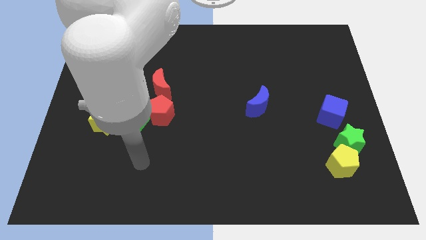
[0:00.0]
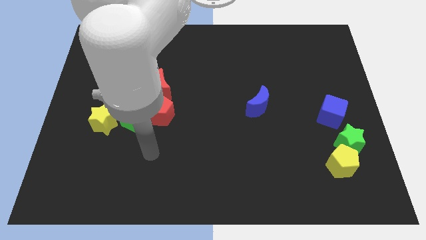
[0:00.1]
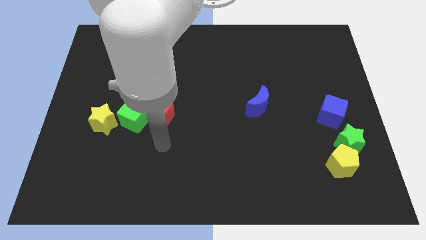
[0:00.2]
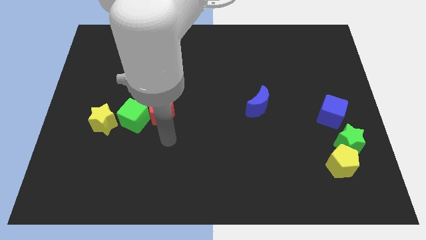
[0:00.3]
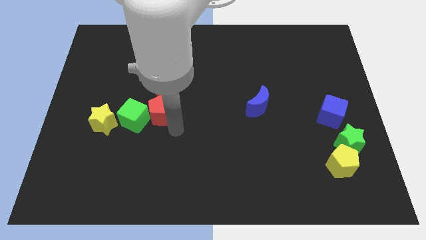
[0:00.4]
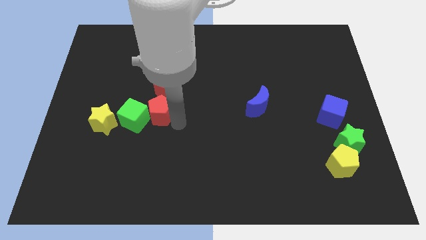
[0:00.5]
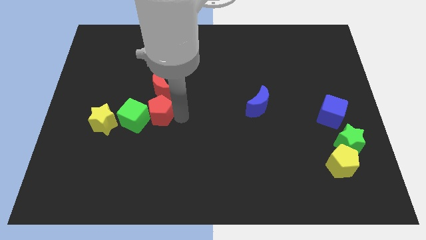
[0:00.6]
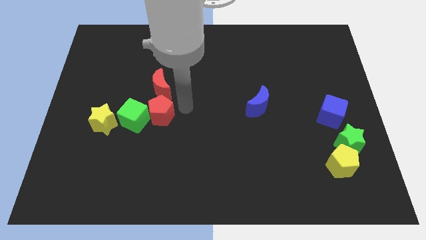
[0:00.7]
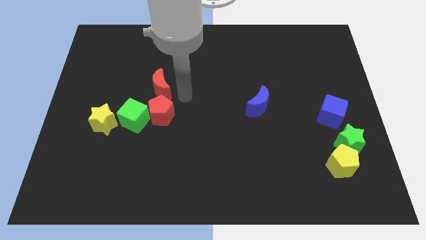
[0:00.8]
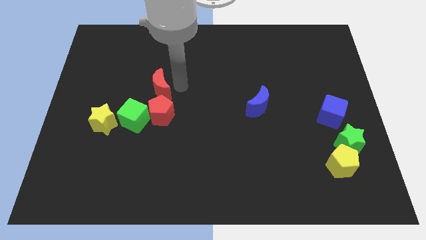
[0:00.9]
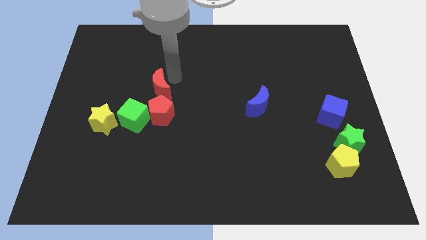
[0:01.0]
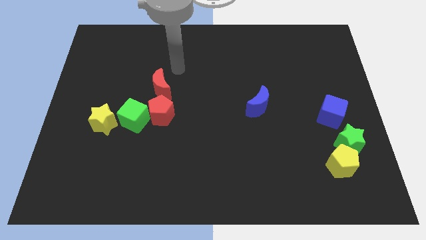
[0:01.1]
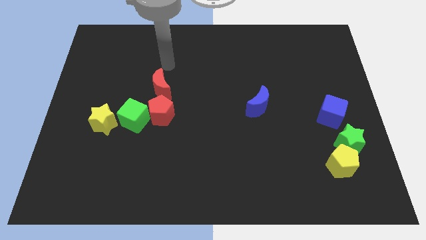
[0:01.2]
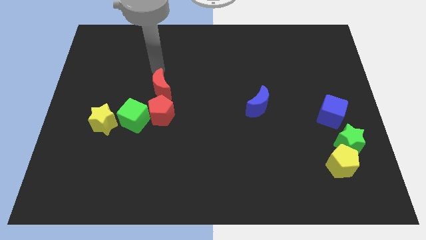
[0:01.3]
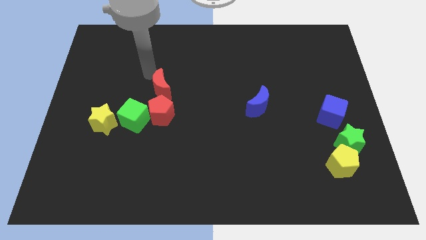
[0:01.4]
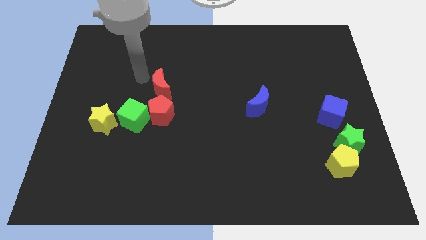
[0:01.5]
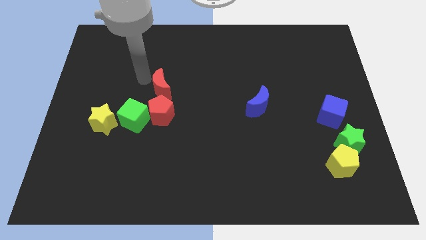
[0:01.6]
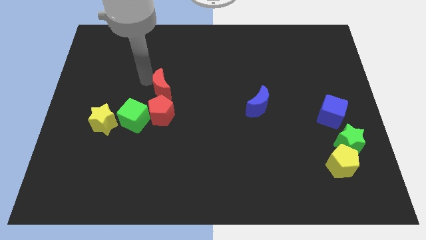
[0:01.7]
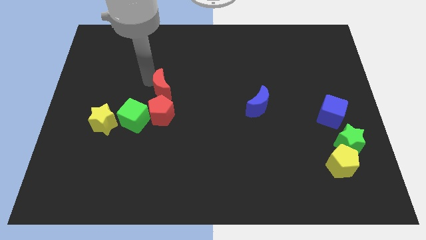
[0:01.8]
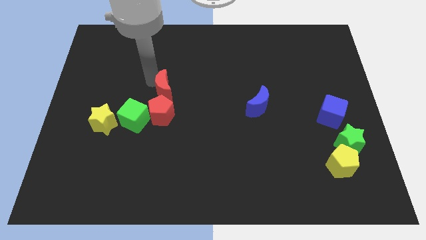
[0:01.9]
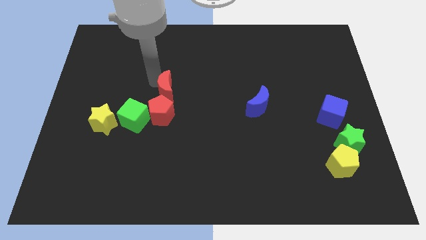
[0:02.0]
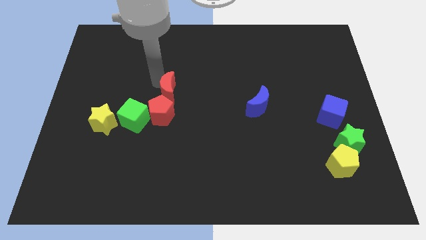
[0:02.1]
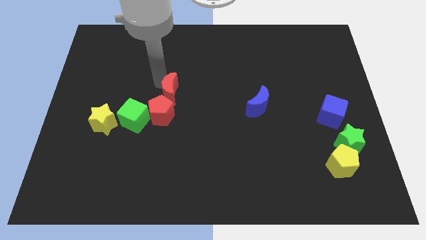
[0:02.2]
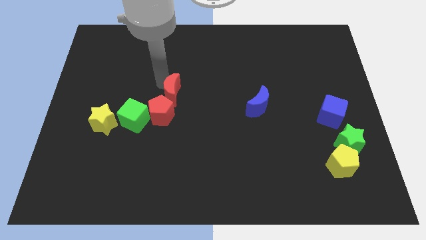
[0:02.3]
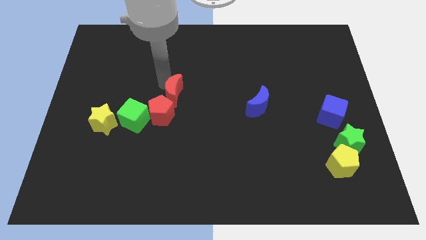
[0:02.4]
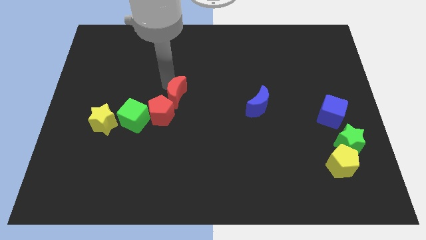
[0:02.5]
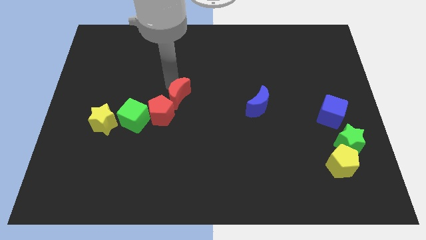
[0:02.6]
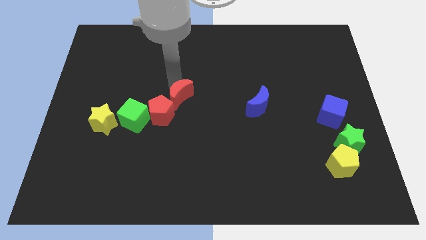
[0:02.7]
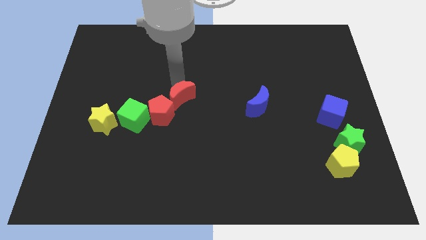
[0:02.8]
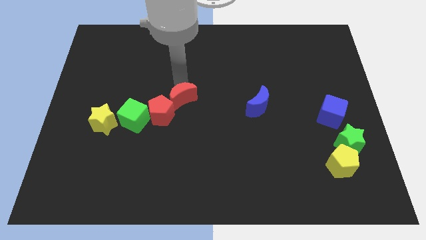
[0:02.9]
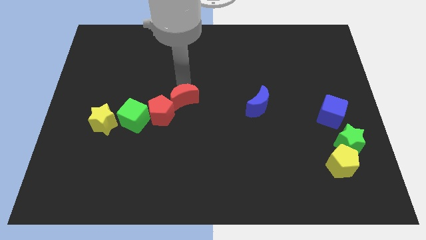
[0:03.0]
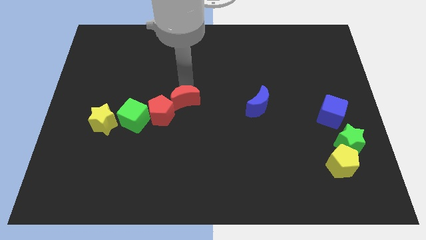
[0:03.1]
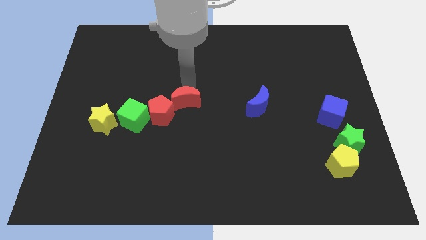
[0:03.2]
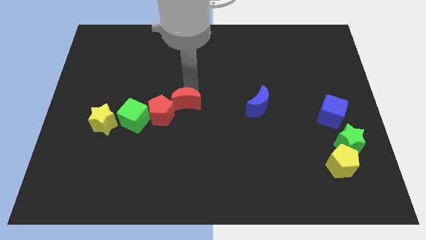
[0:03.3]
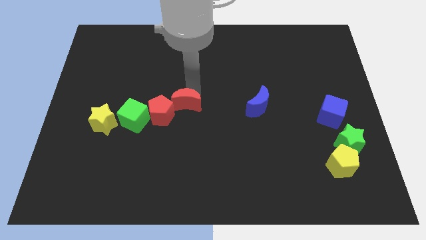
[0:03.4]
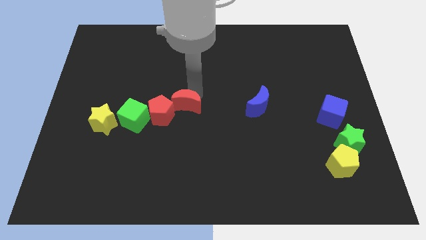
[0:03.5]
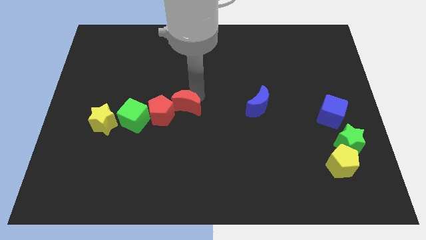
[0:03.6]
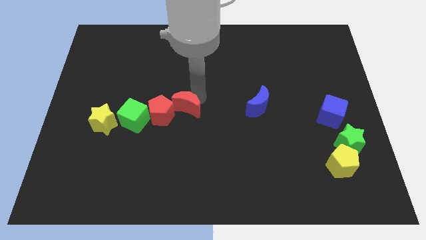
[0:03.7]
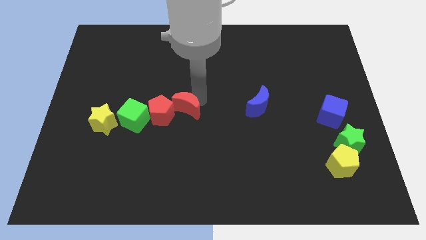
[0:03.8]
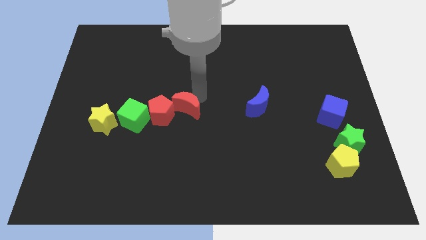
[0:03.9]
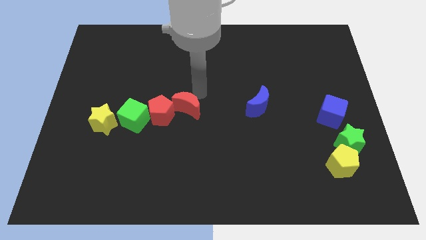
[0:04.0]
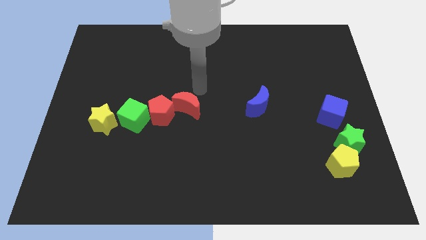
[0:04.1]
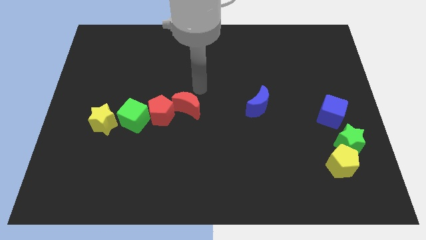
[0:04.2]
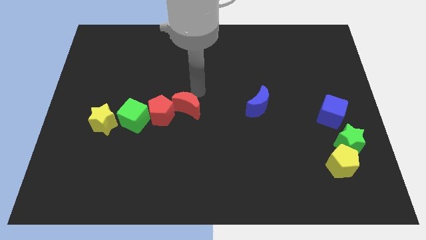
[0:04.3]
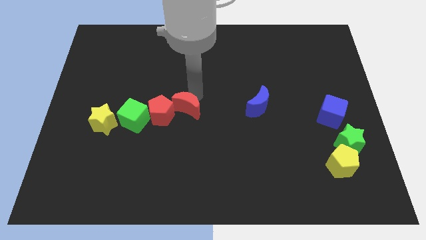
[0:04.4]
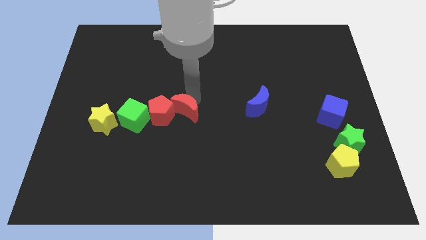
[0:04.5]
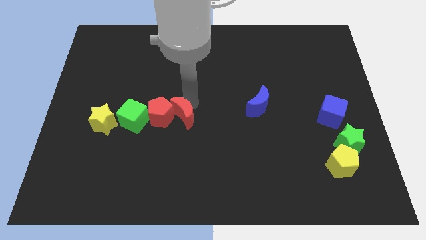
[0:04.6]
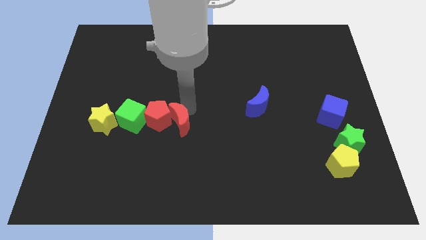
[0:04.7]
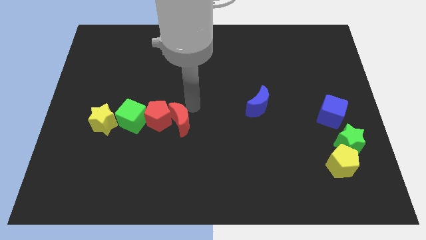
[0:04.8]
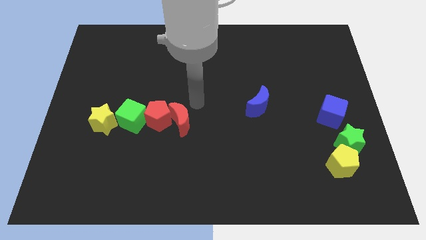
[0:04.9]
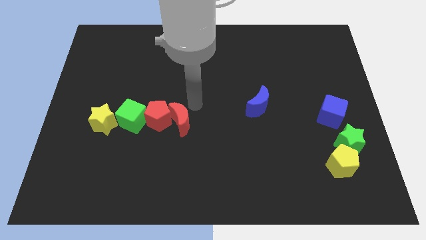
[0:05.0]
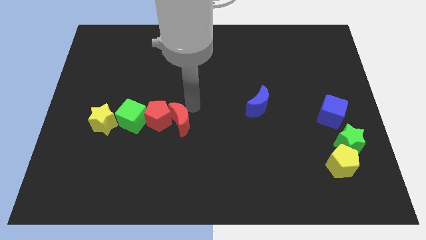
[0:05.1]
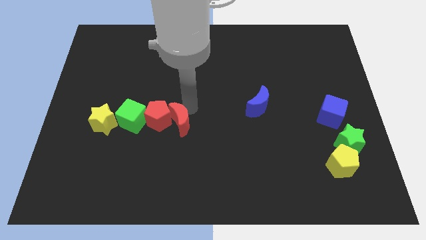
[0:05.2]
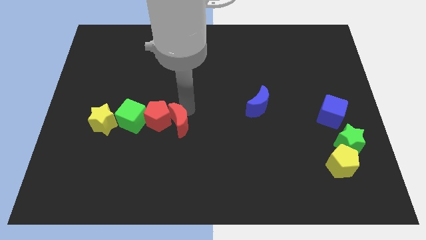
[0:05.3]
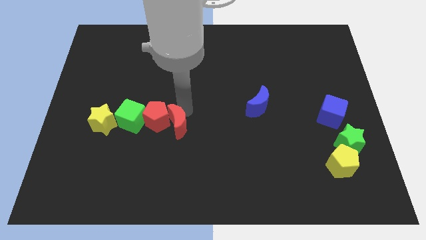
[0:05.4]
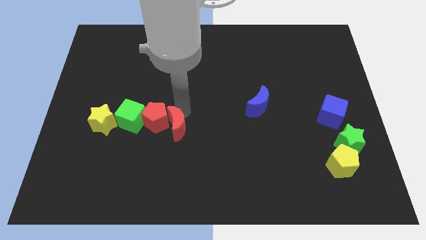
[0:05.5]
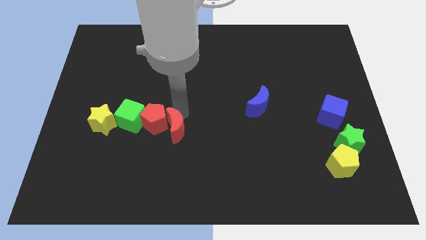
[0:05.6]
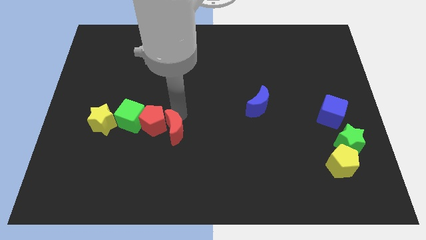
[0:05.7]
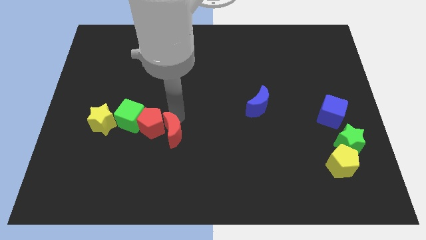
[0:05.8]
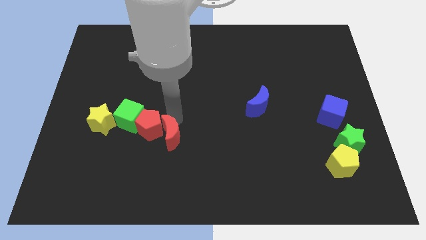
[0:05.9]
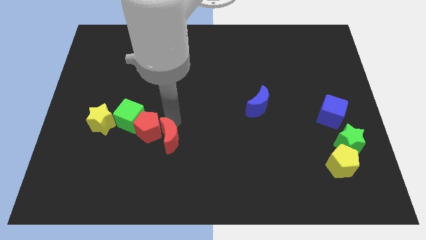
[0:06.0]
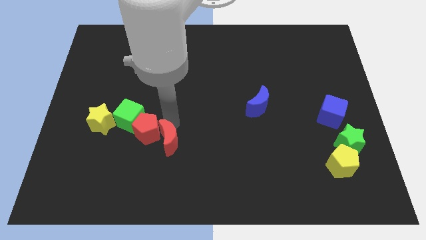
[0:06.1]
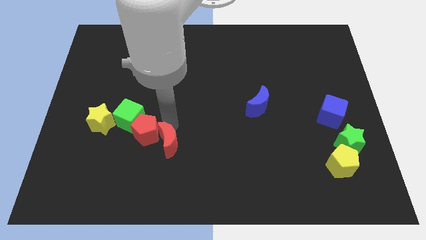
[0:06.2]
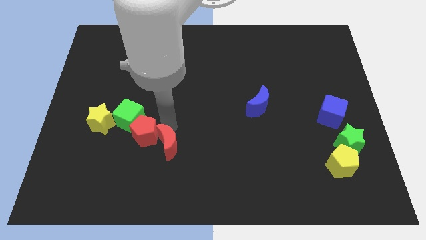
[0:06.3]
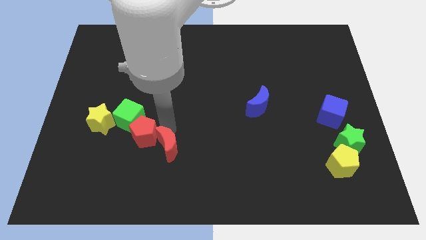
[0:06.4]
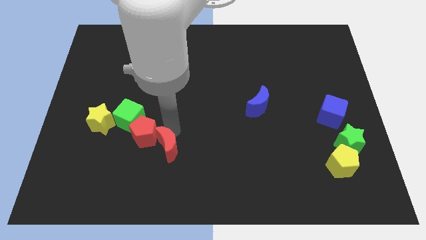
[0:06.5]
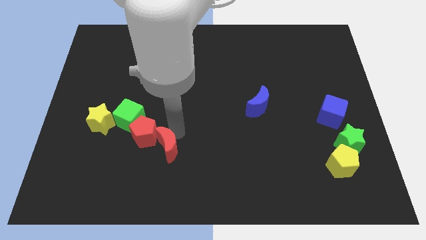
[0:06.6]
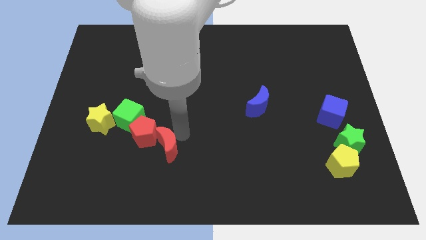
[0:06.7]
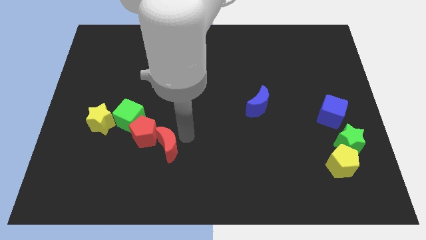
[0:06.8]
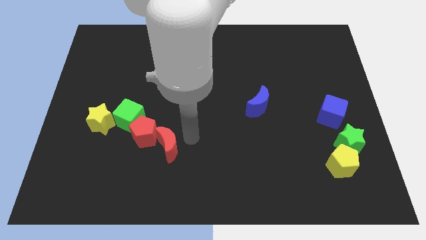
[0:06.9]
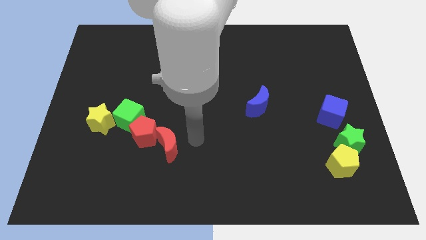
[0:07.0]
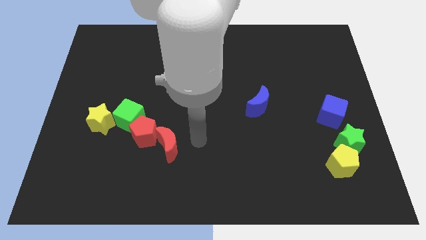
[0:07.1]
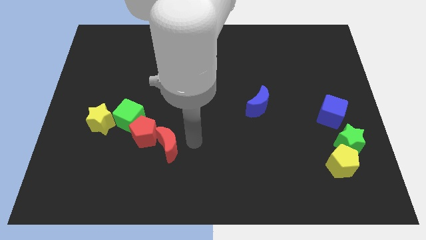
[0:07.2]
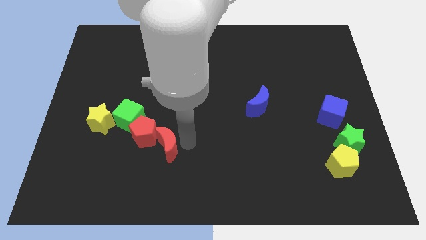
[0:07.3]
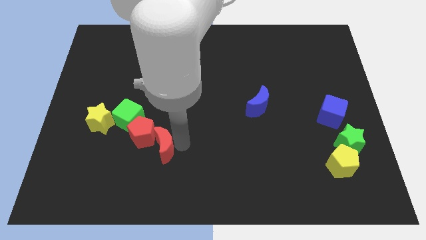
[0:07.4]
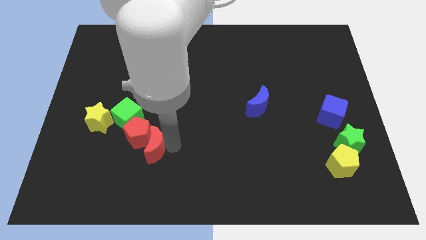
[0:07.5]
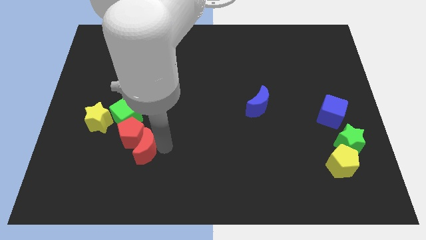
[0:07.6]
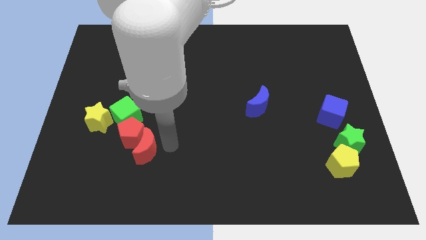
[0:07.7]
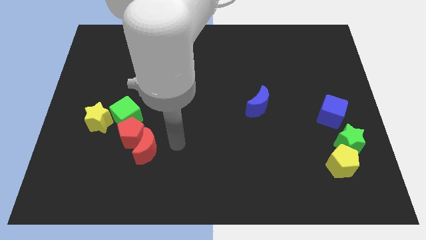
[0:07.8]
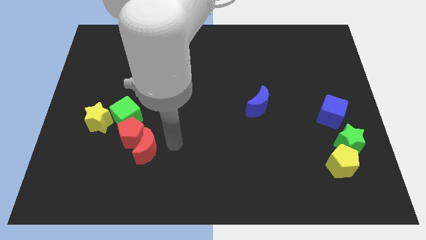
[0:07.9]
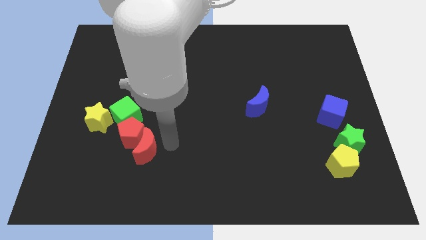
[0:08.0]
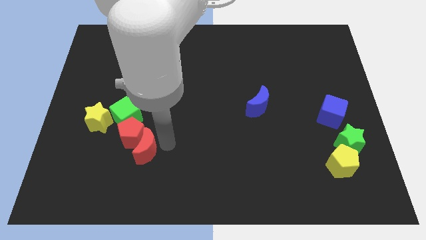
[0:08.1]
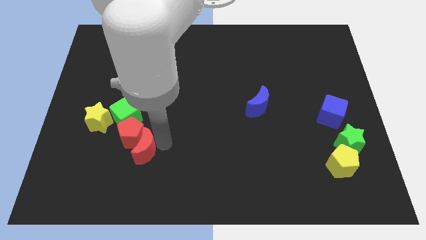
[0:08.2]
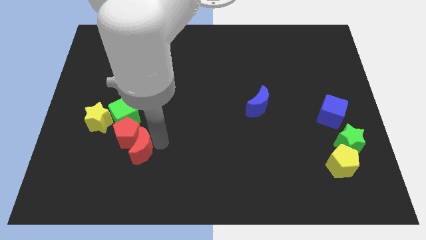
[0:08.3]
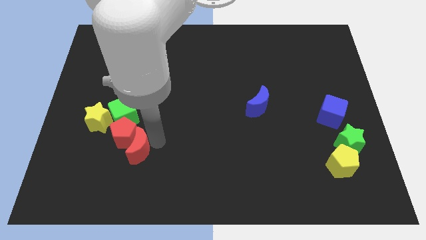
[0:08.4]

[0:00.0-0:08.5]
put the red moon to the bottom of the green cube
